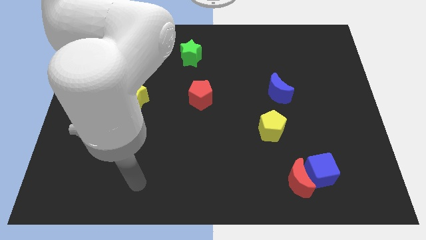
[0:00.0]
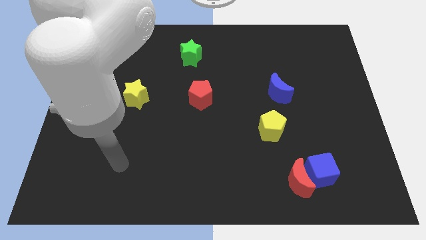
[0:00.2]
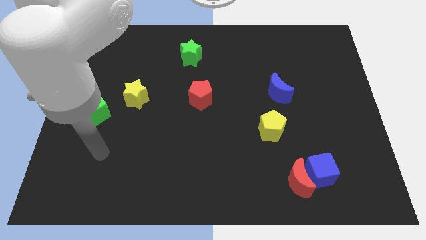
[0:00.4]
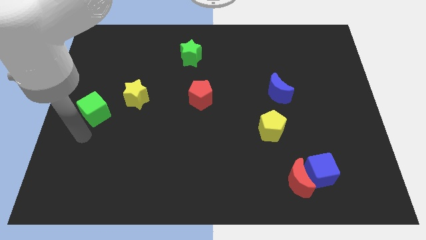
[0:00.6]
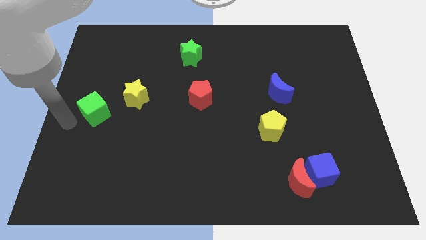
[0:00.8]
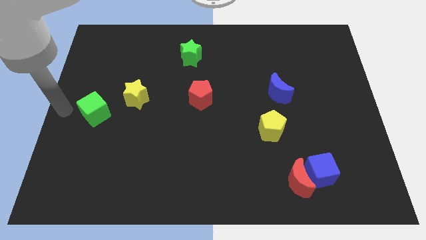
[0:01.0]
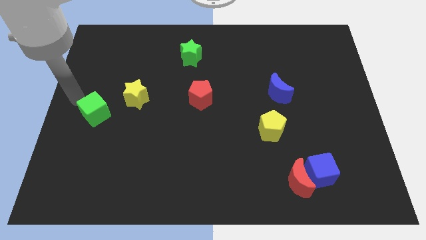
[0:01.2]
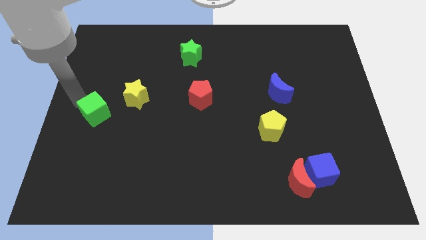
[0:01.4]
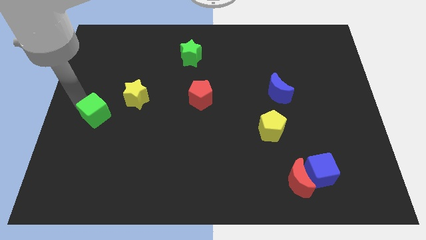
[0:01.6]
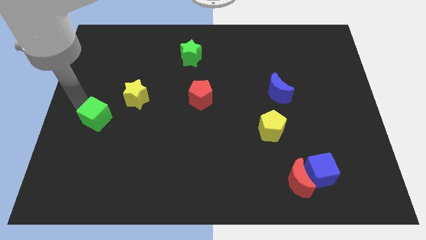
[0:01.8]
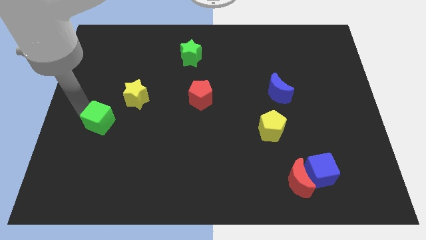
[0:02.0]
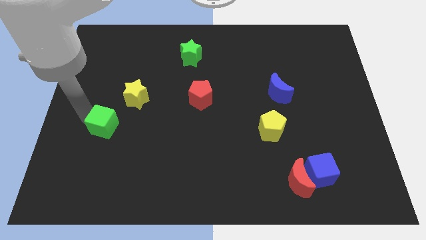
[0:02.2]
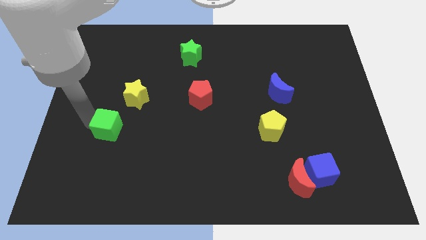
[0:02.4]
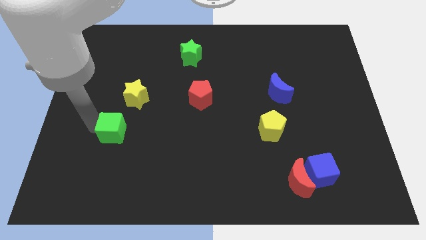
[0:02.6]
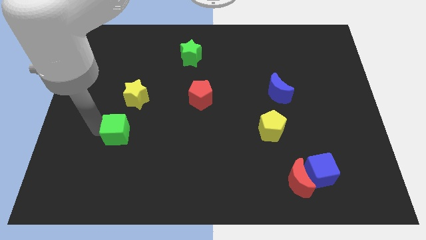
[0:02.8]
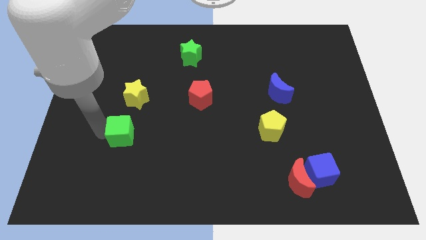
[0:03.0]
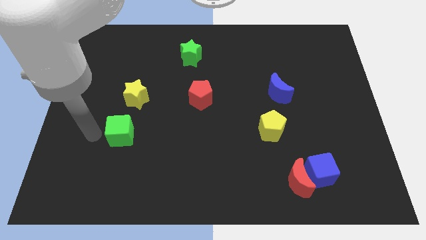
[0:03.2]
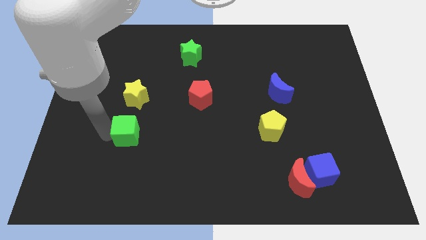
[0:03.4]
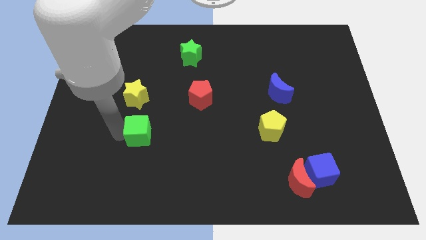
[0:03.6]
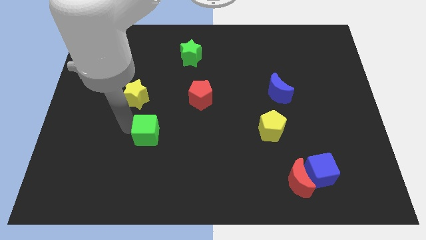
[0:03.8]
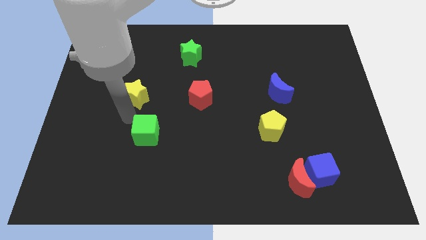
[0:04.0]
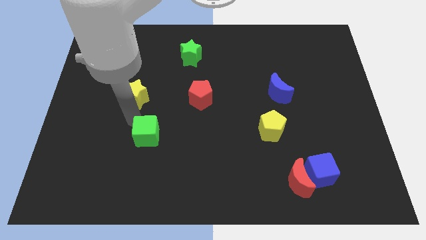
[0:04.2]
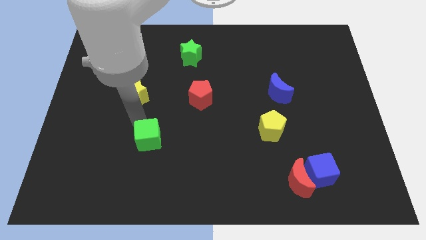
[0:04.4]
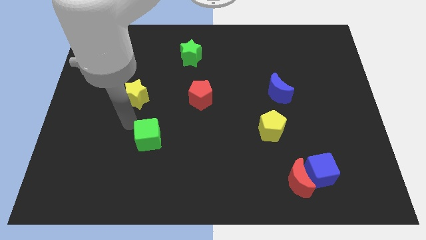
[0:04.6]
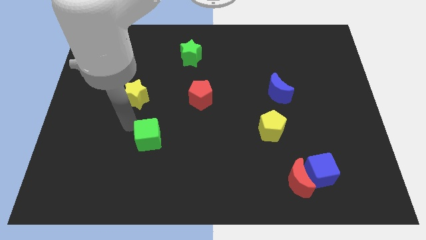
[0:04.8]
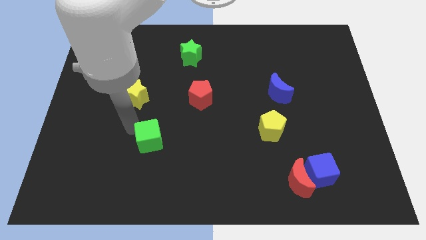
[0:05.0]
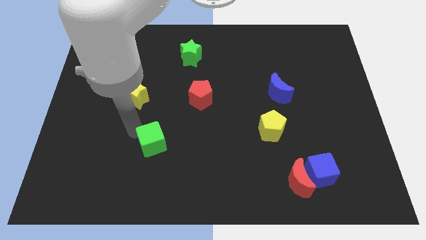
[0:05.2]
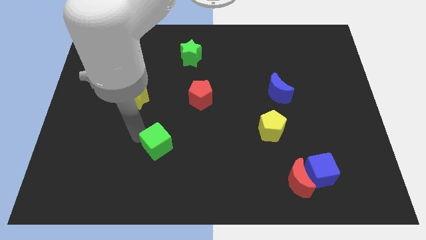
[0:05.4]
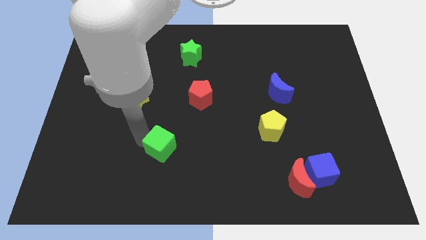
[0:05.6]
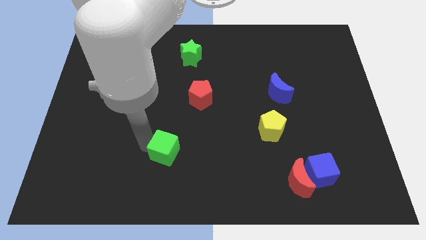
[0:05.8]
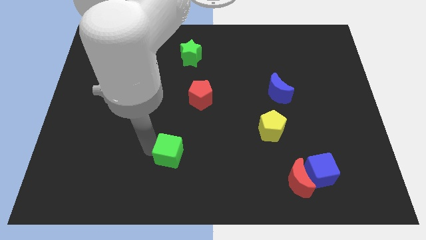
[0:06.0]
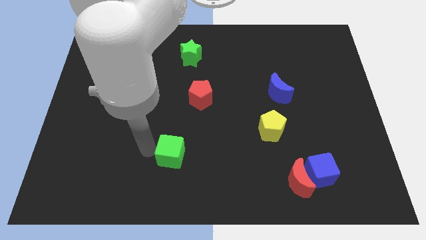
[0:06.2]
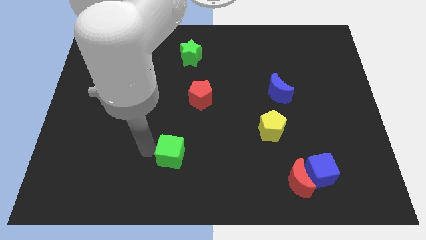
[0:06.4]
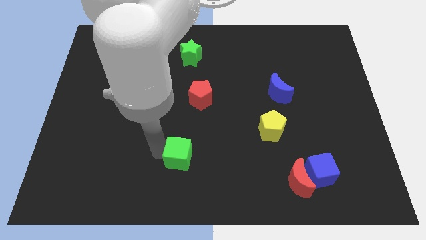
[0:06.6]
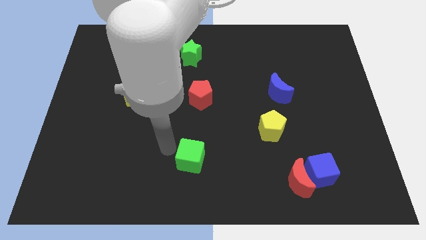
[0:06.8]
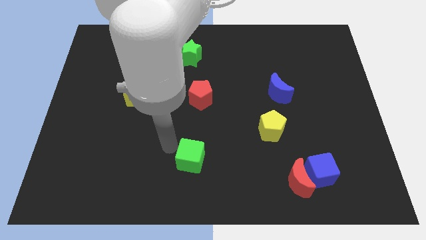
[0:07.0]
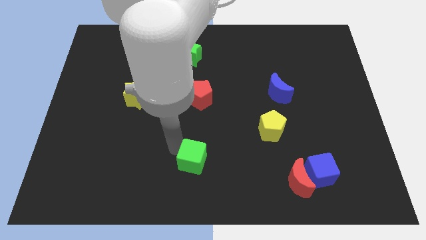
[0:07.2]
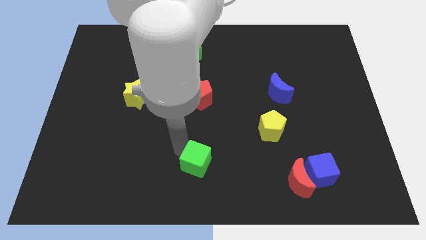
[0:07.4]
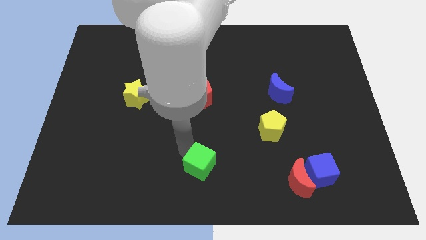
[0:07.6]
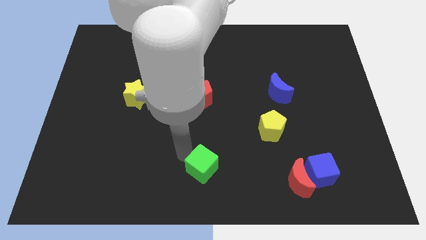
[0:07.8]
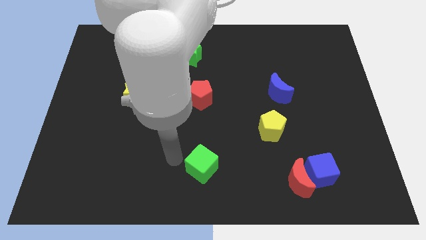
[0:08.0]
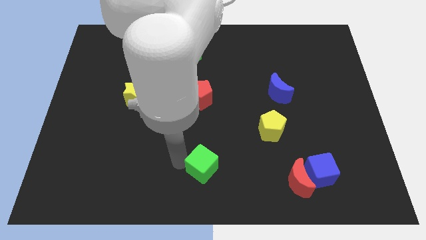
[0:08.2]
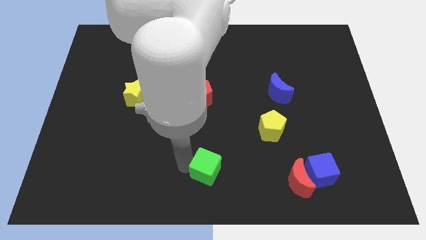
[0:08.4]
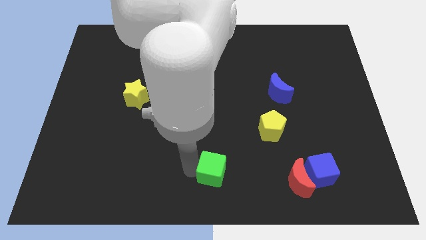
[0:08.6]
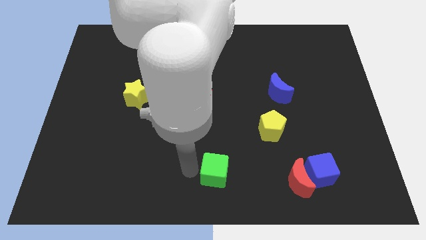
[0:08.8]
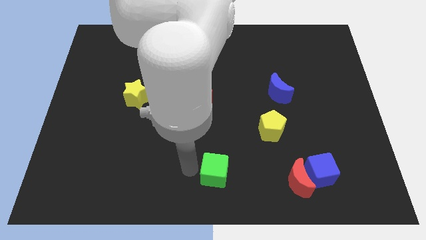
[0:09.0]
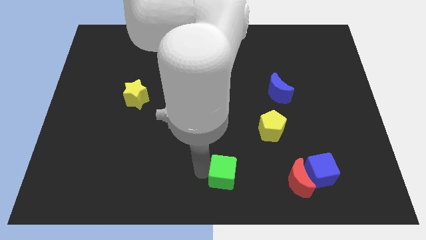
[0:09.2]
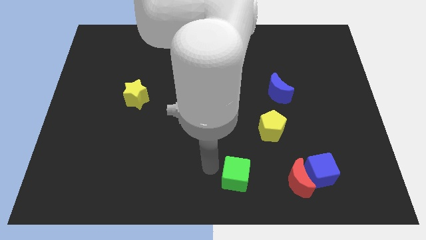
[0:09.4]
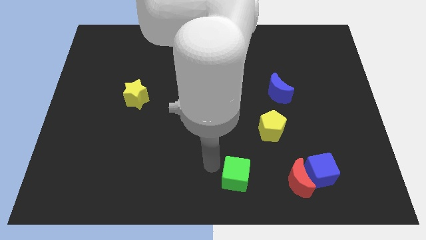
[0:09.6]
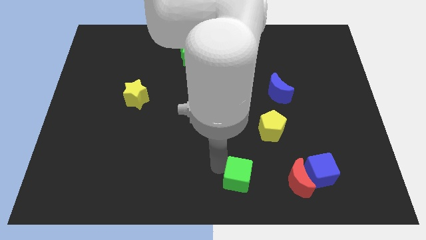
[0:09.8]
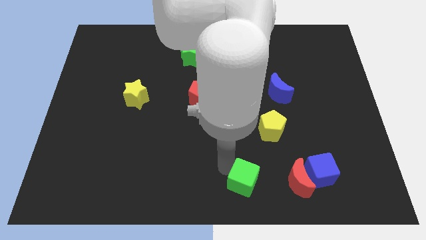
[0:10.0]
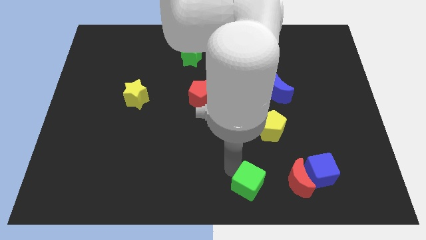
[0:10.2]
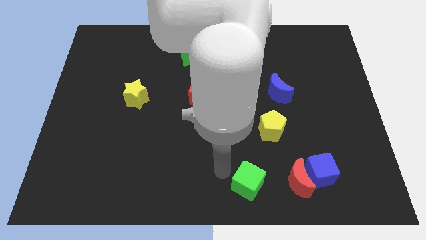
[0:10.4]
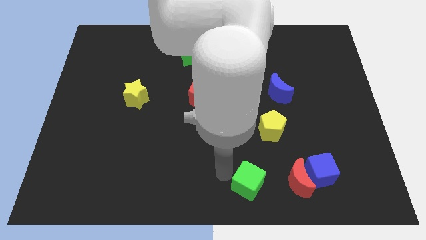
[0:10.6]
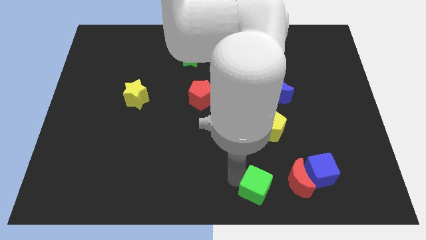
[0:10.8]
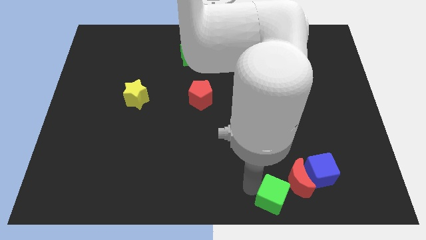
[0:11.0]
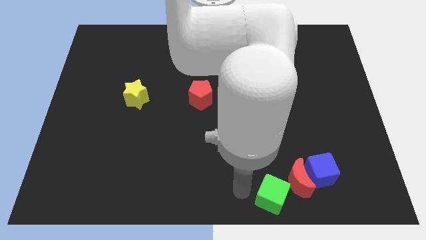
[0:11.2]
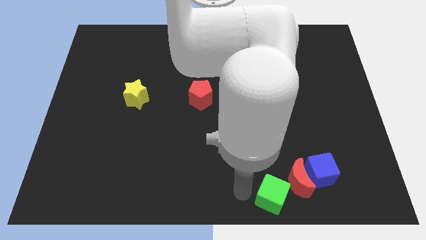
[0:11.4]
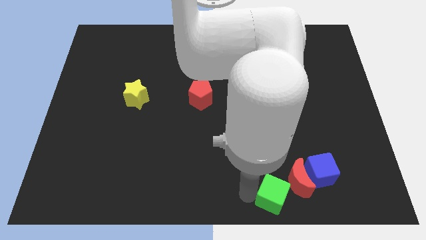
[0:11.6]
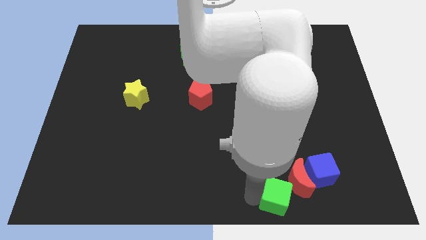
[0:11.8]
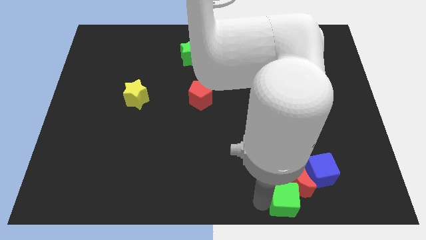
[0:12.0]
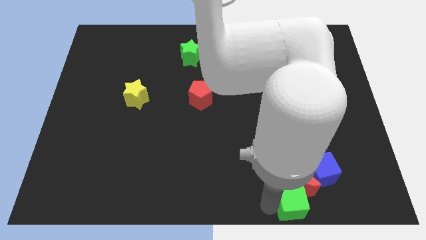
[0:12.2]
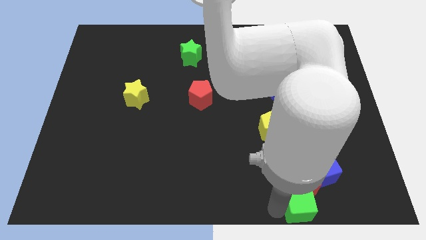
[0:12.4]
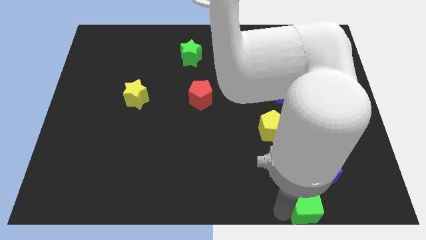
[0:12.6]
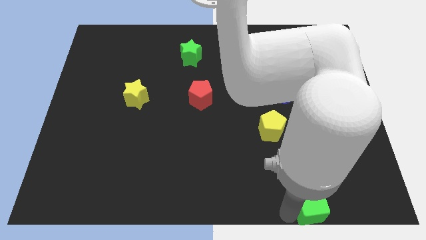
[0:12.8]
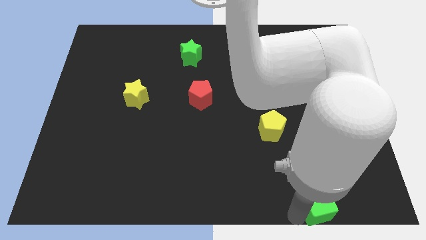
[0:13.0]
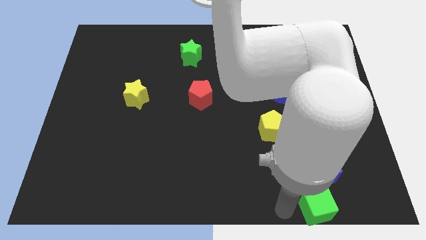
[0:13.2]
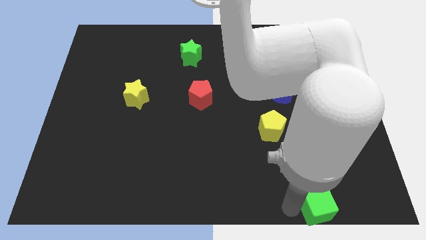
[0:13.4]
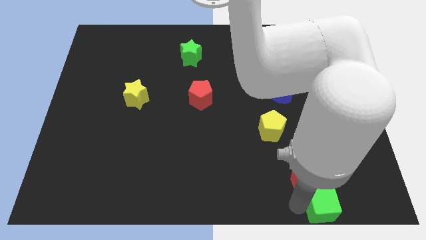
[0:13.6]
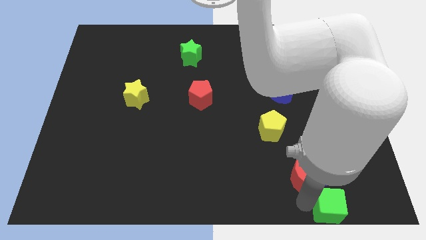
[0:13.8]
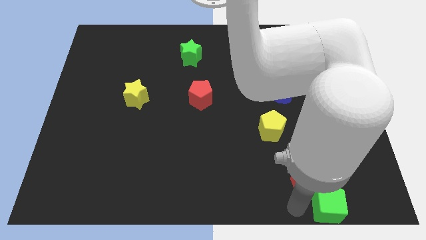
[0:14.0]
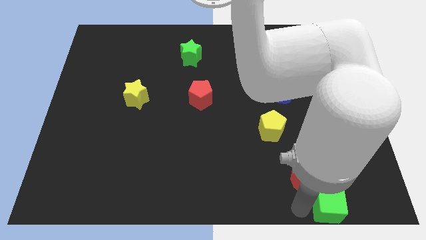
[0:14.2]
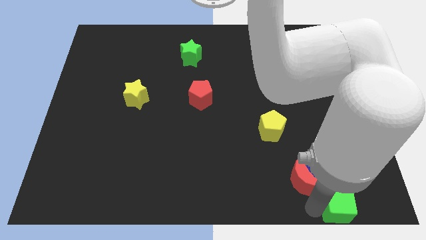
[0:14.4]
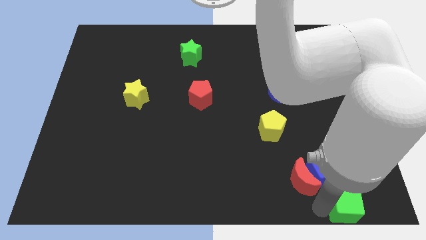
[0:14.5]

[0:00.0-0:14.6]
push the green cube to the bottom right of the board
